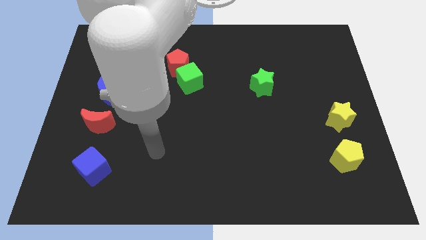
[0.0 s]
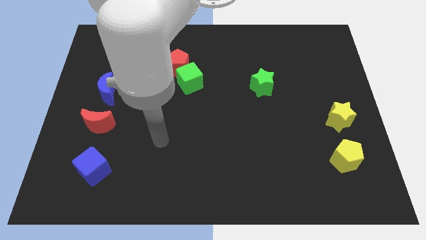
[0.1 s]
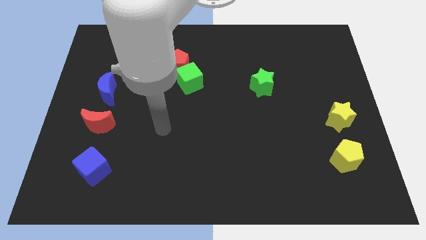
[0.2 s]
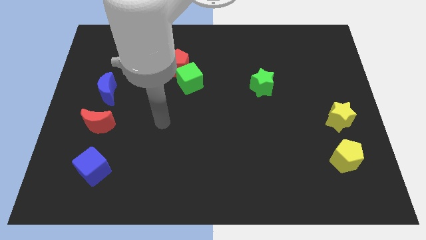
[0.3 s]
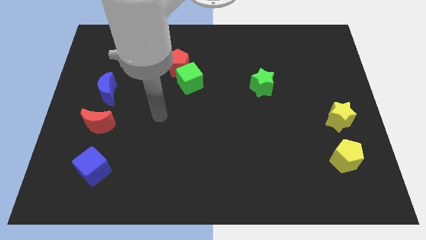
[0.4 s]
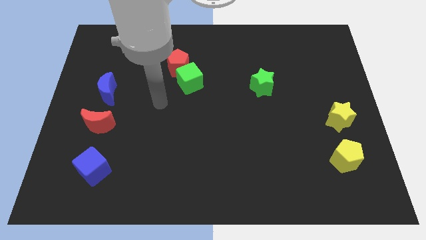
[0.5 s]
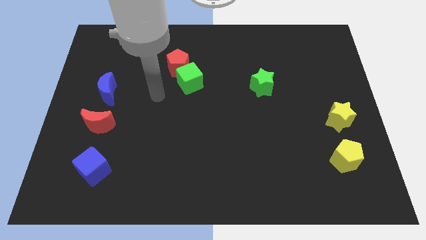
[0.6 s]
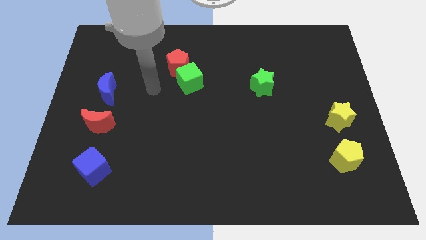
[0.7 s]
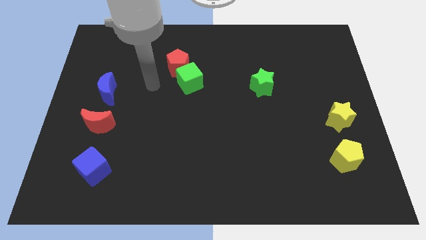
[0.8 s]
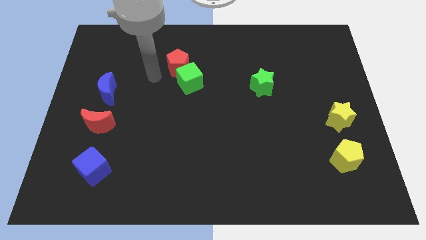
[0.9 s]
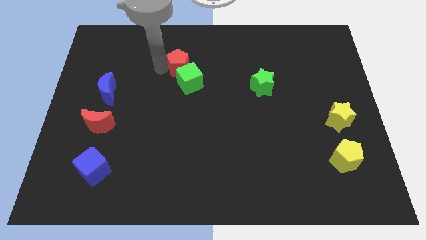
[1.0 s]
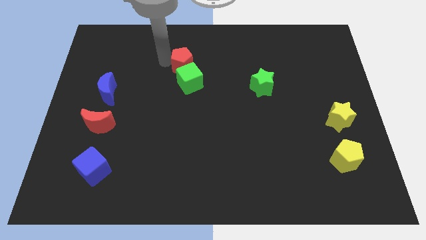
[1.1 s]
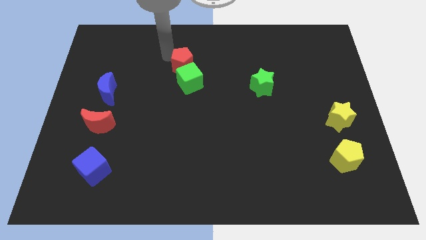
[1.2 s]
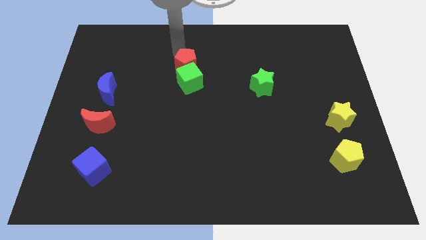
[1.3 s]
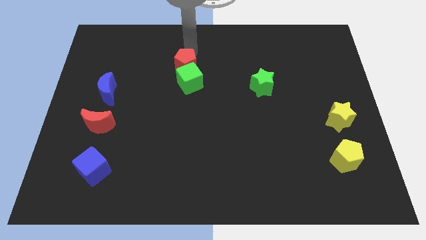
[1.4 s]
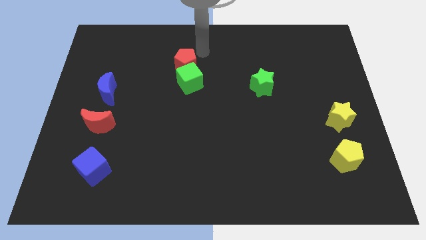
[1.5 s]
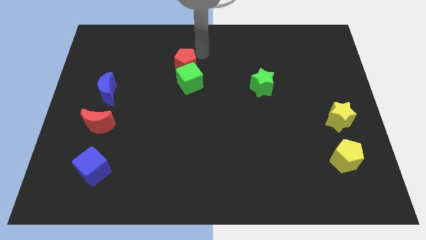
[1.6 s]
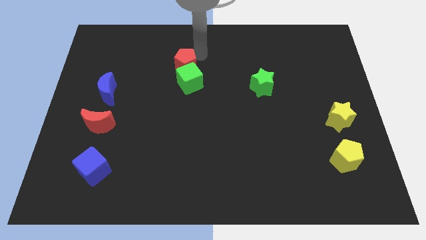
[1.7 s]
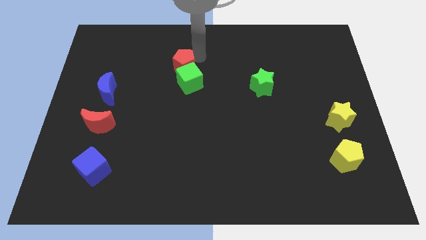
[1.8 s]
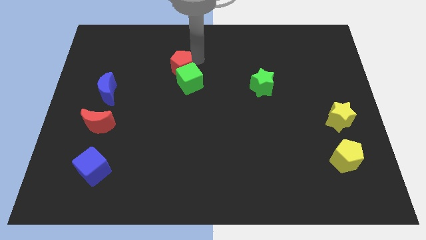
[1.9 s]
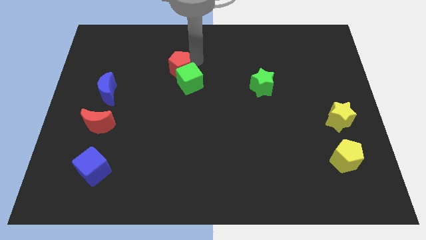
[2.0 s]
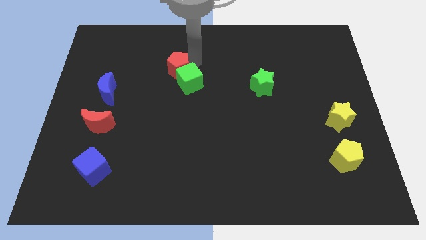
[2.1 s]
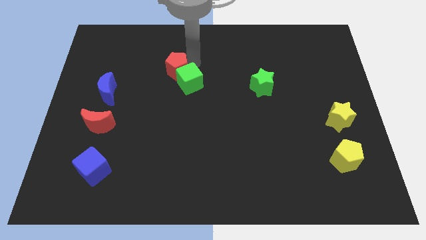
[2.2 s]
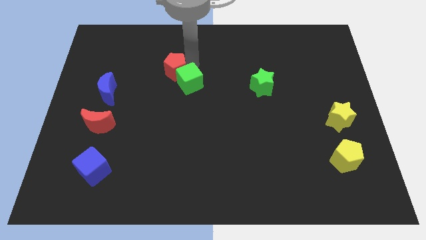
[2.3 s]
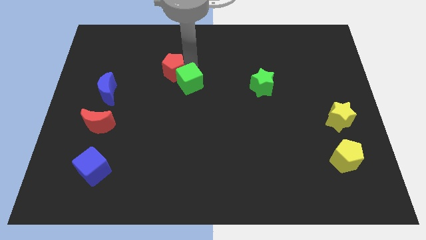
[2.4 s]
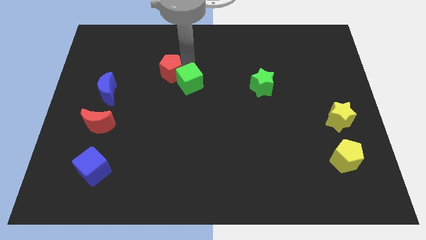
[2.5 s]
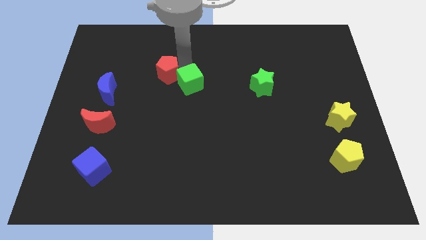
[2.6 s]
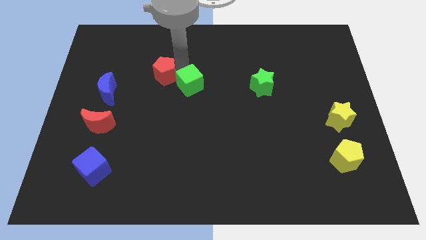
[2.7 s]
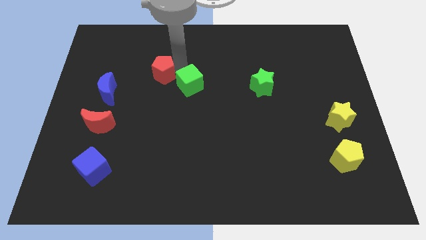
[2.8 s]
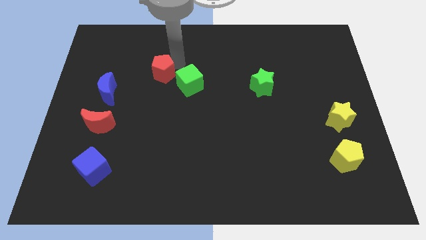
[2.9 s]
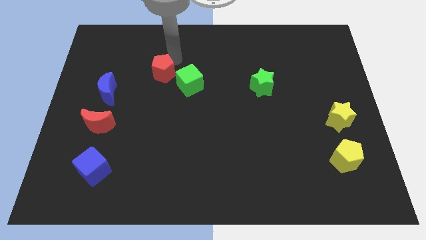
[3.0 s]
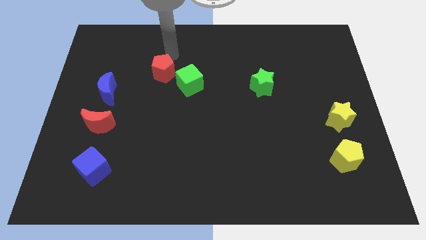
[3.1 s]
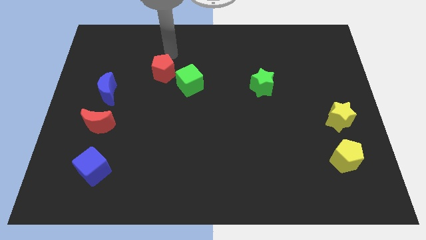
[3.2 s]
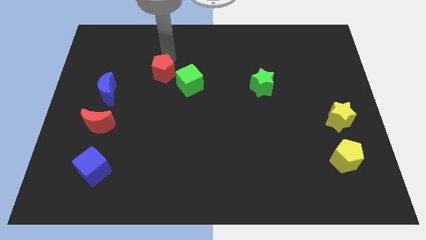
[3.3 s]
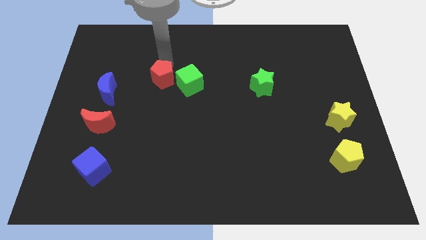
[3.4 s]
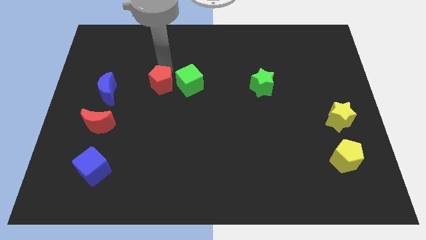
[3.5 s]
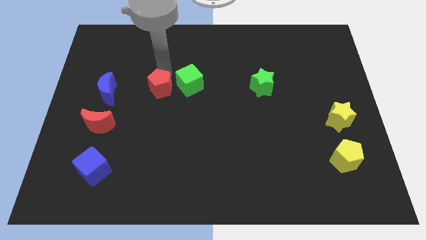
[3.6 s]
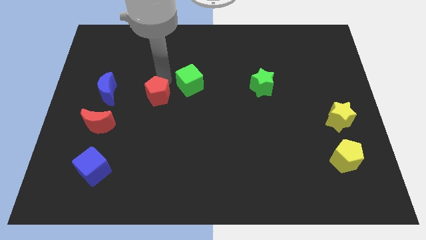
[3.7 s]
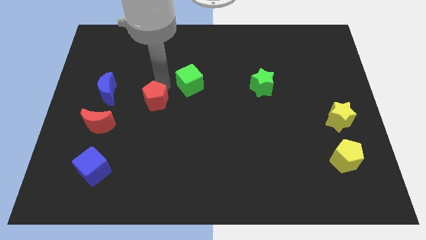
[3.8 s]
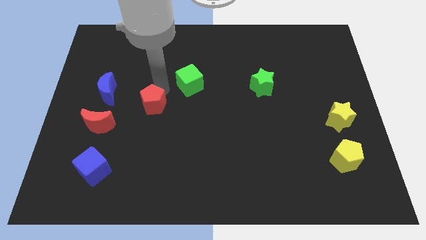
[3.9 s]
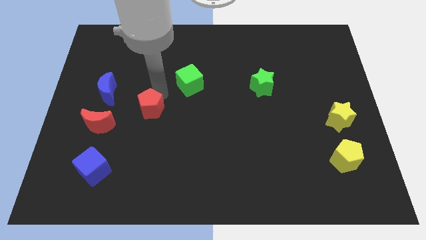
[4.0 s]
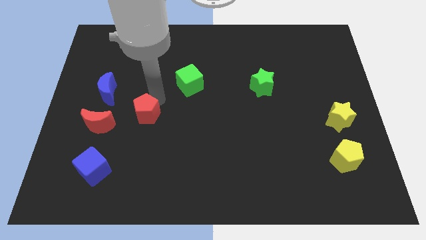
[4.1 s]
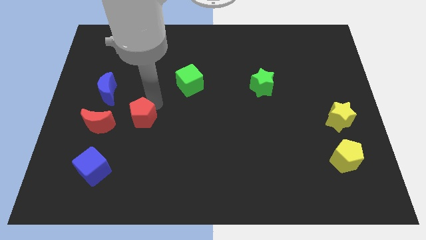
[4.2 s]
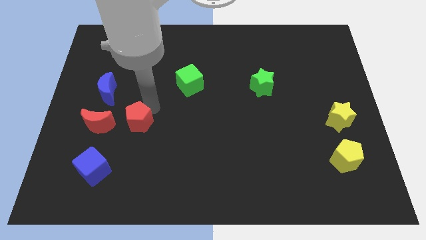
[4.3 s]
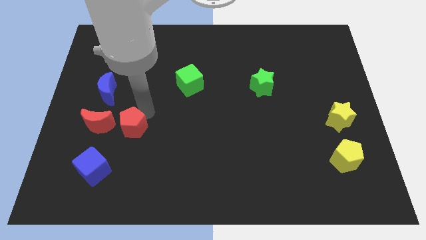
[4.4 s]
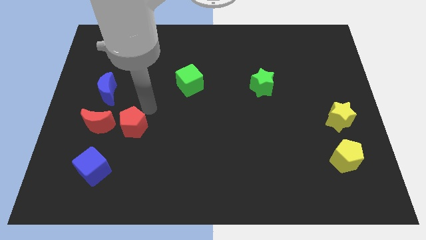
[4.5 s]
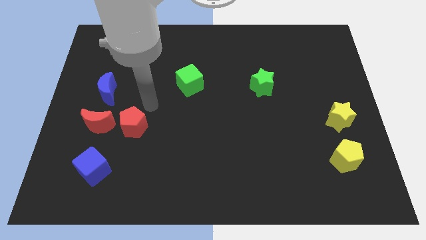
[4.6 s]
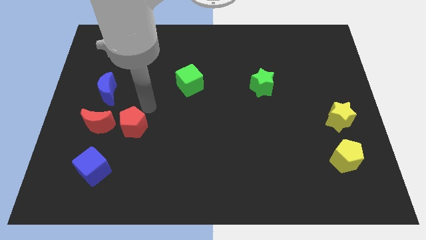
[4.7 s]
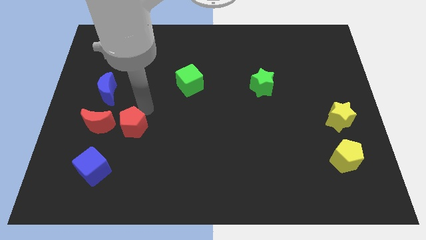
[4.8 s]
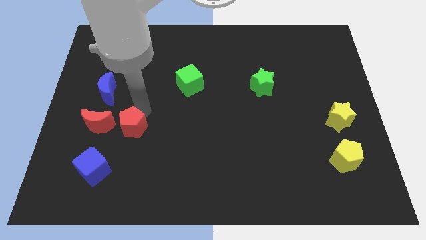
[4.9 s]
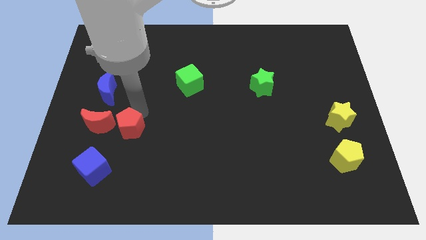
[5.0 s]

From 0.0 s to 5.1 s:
slide the red pentagon to the bottom right of the red moon

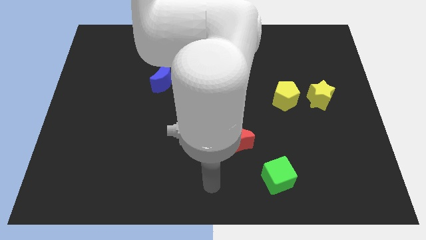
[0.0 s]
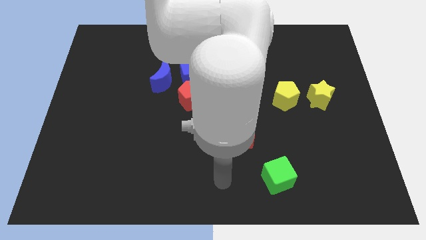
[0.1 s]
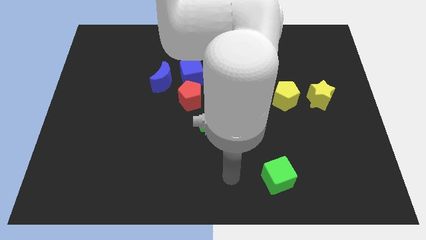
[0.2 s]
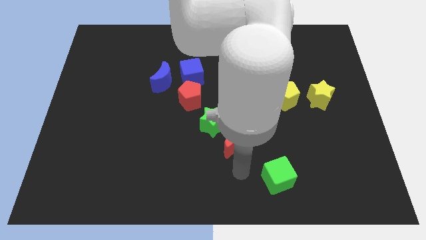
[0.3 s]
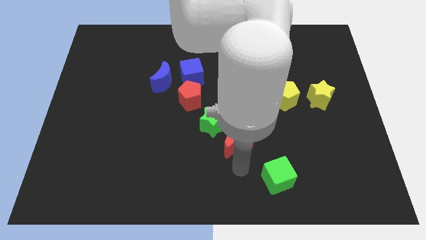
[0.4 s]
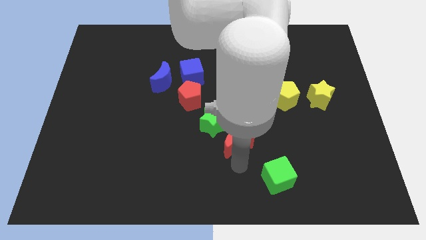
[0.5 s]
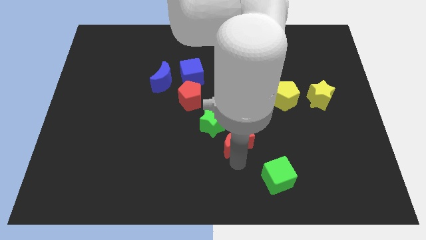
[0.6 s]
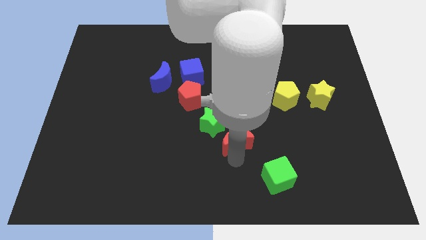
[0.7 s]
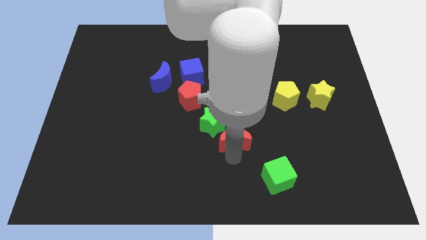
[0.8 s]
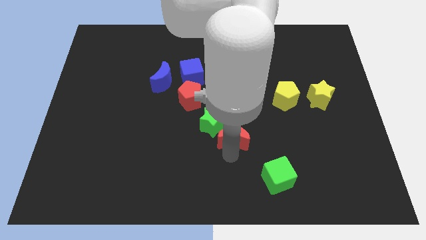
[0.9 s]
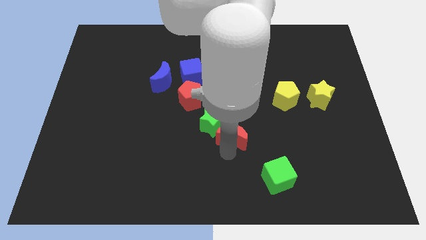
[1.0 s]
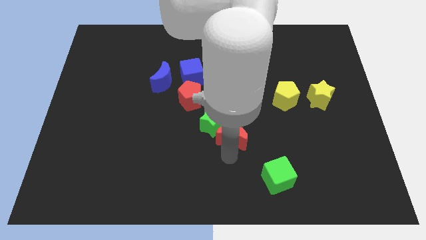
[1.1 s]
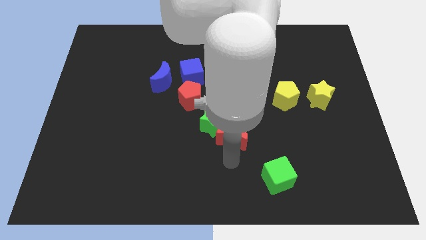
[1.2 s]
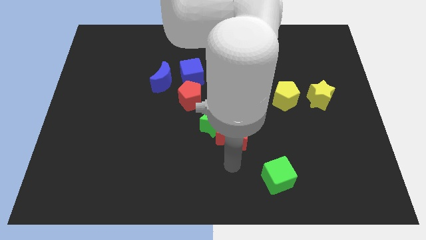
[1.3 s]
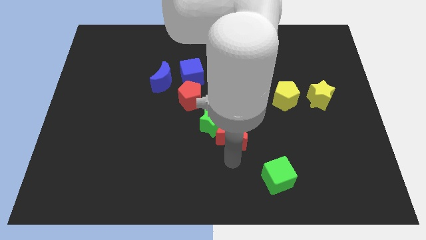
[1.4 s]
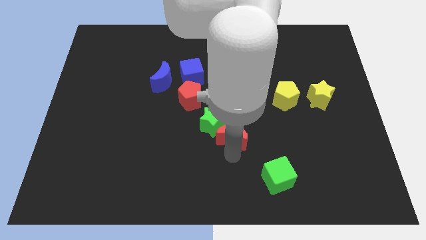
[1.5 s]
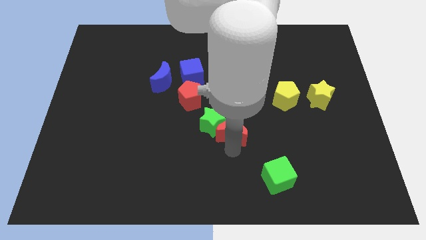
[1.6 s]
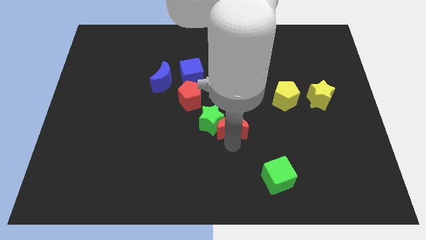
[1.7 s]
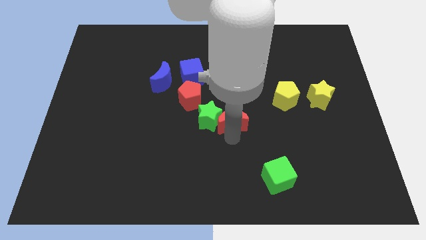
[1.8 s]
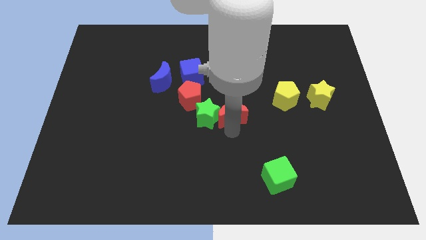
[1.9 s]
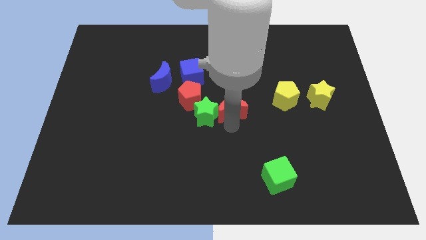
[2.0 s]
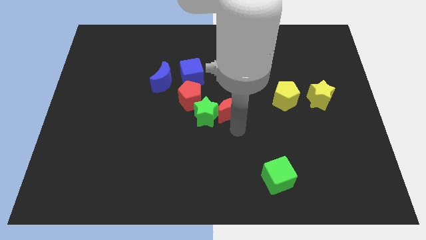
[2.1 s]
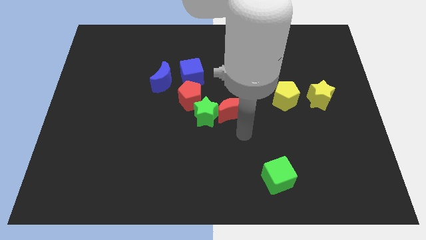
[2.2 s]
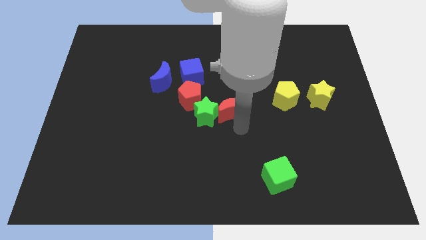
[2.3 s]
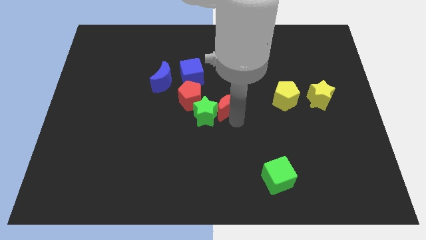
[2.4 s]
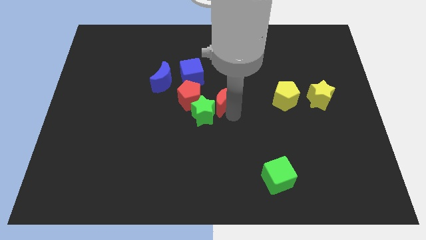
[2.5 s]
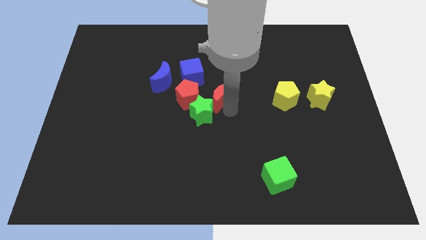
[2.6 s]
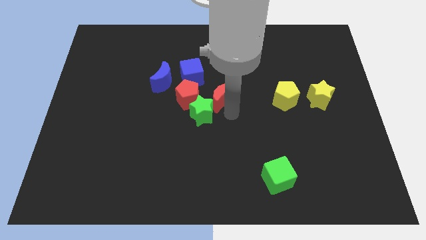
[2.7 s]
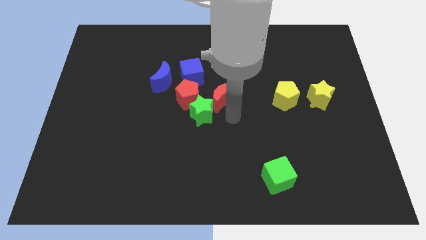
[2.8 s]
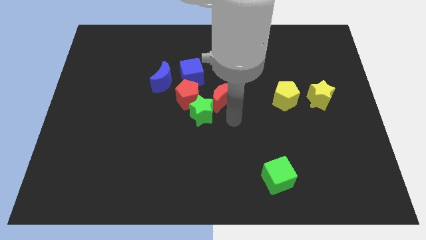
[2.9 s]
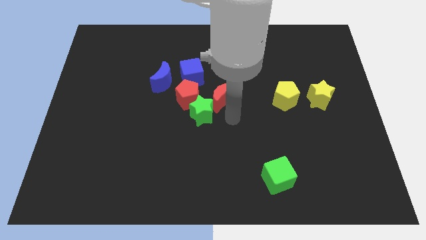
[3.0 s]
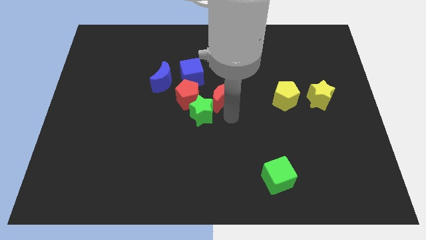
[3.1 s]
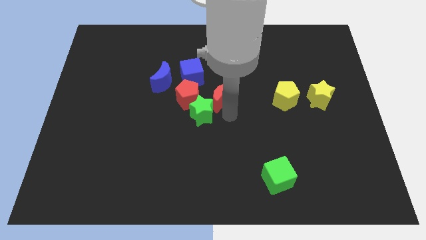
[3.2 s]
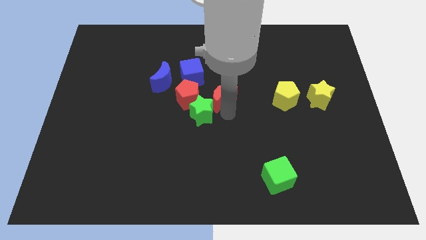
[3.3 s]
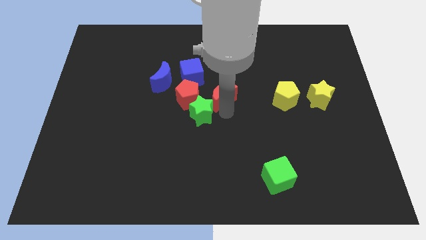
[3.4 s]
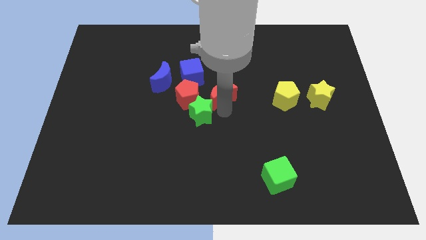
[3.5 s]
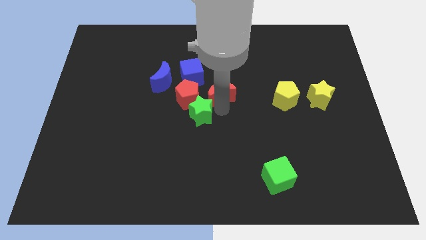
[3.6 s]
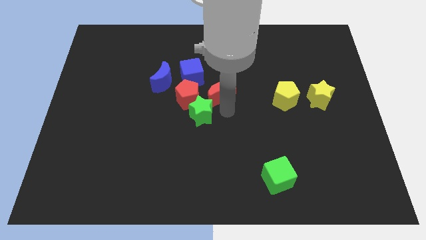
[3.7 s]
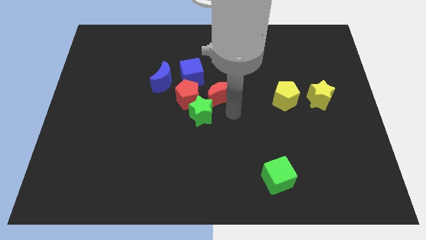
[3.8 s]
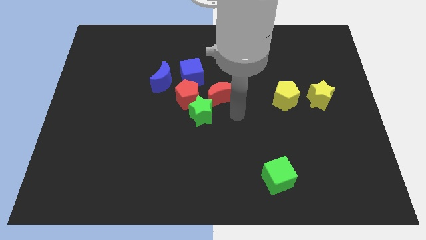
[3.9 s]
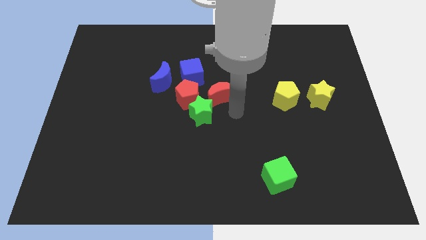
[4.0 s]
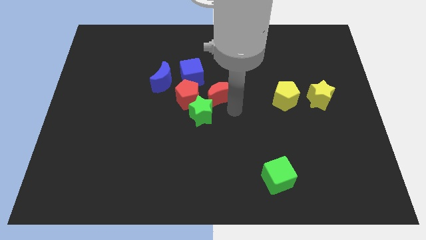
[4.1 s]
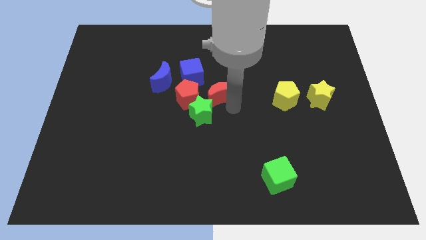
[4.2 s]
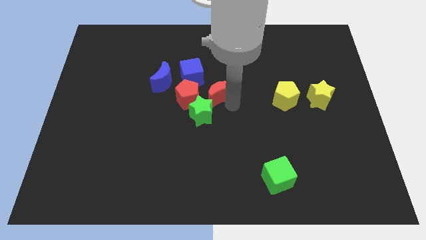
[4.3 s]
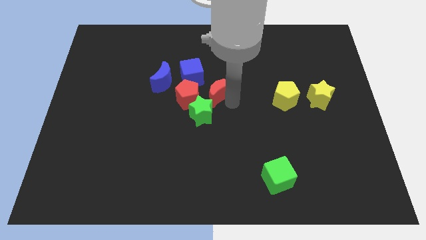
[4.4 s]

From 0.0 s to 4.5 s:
slide the red moon just right of the blue moon
